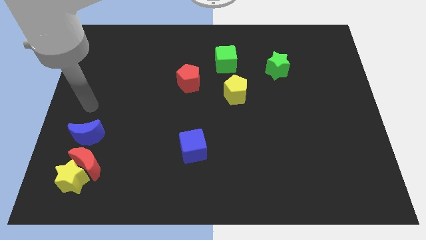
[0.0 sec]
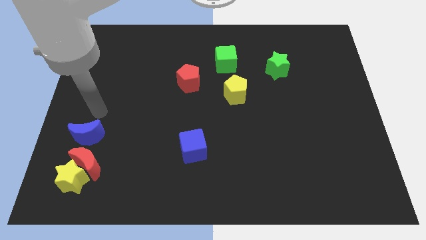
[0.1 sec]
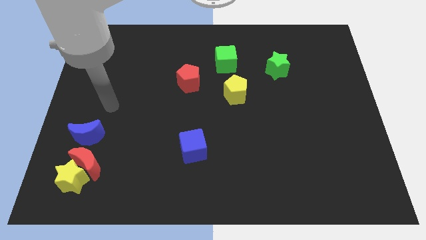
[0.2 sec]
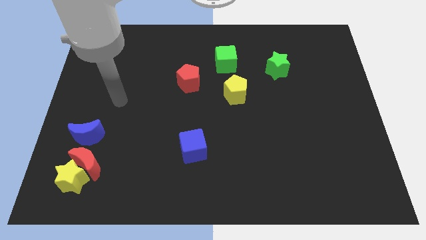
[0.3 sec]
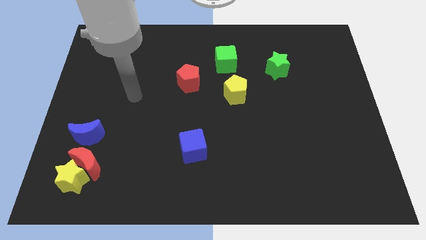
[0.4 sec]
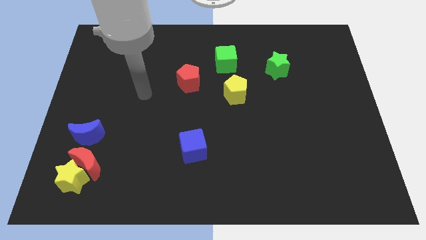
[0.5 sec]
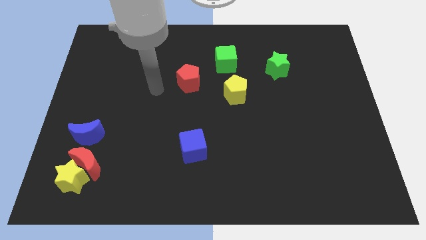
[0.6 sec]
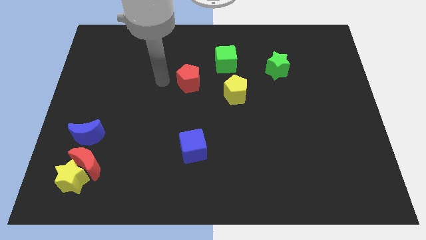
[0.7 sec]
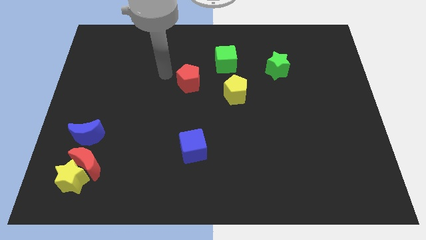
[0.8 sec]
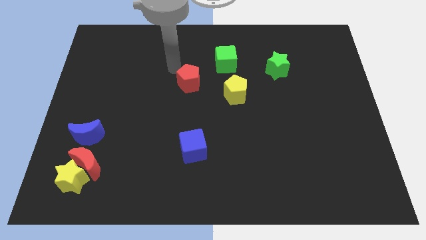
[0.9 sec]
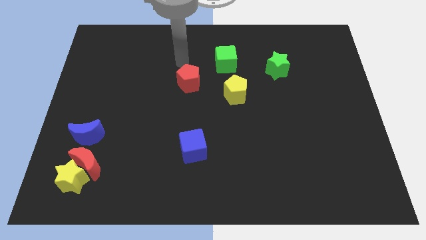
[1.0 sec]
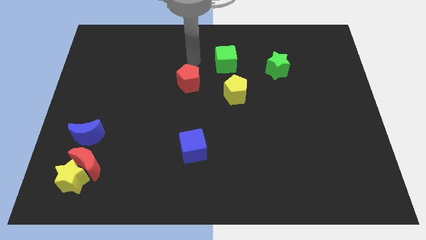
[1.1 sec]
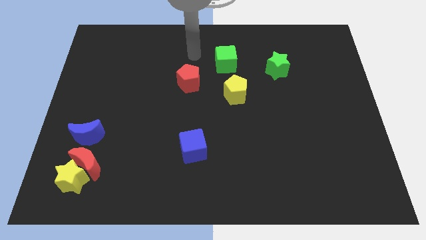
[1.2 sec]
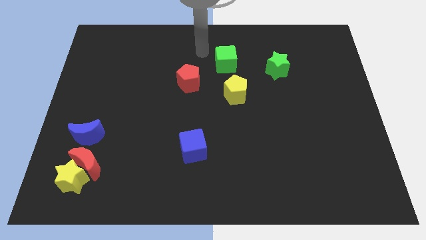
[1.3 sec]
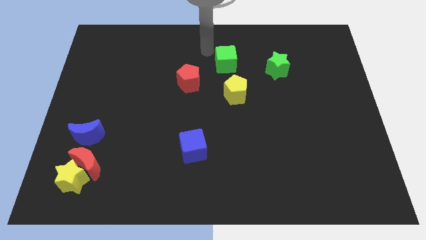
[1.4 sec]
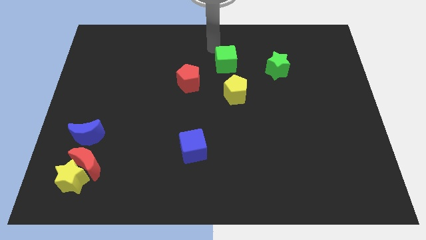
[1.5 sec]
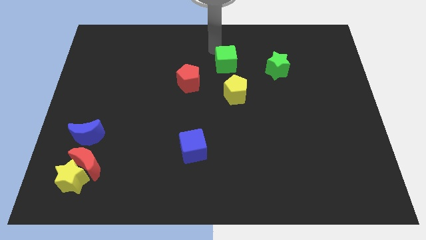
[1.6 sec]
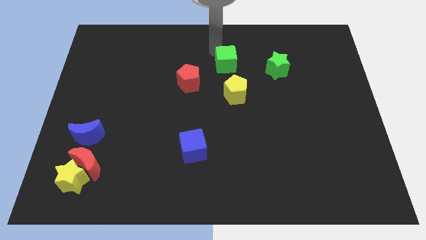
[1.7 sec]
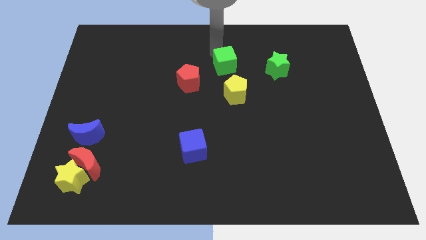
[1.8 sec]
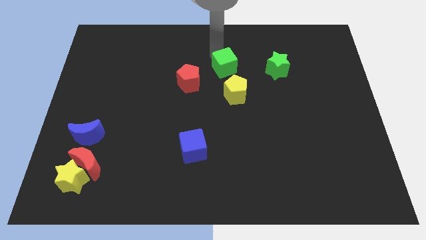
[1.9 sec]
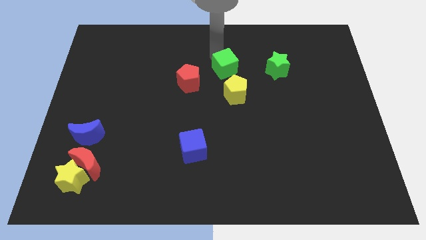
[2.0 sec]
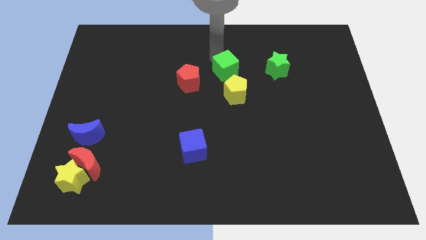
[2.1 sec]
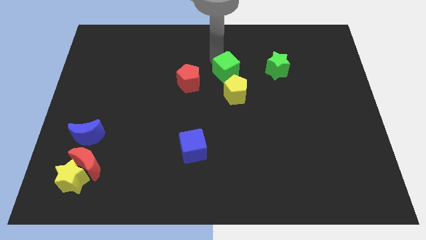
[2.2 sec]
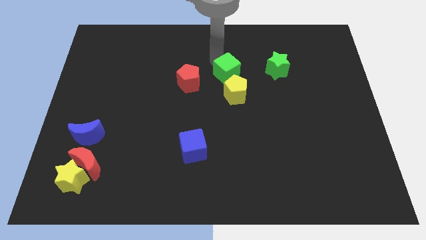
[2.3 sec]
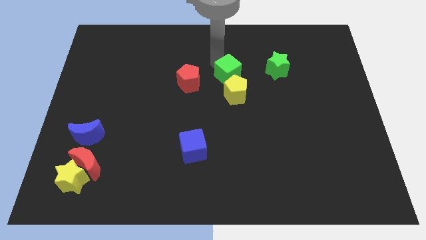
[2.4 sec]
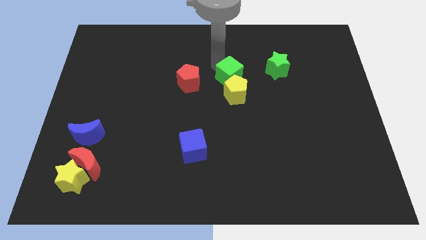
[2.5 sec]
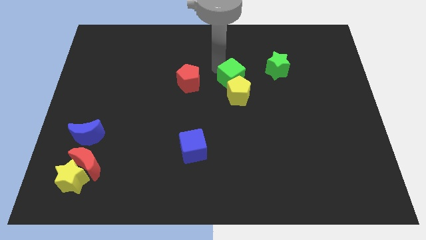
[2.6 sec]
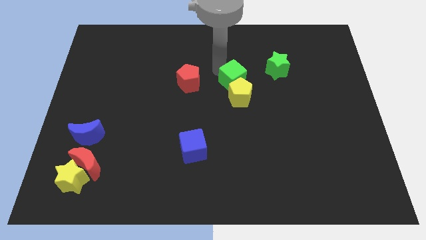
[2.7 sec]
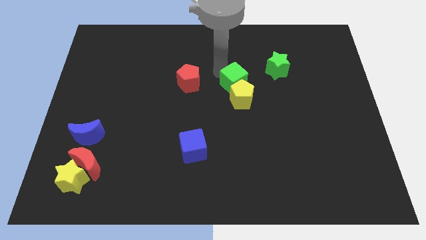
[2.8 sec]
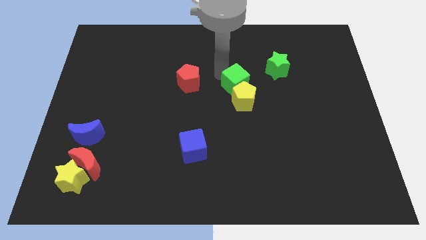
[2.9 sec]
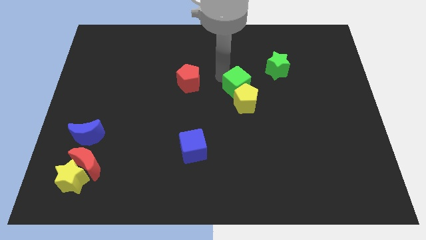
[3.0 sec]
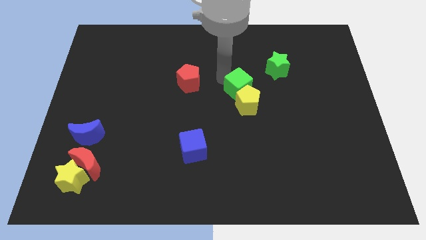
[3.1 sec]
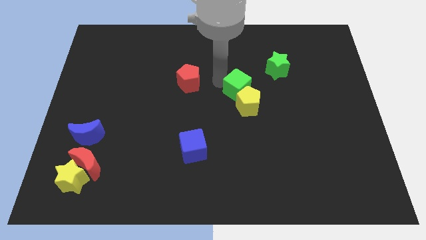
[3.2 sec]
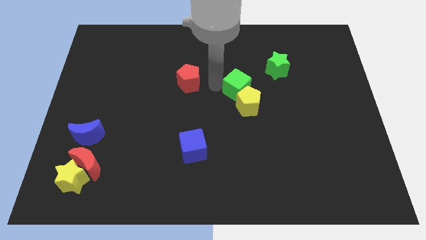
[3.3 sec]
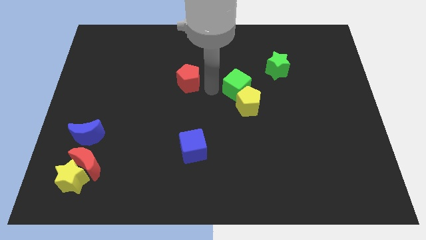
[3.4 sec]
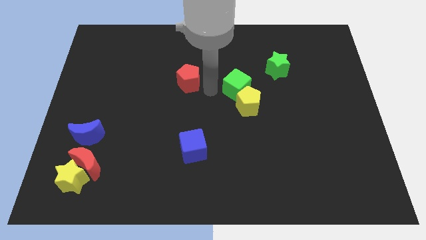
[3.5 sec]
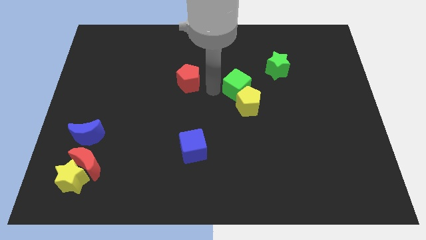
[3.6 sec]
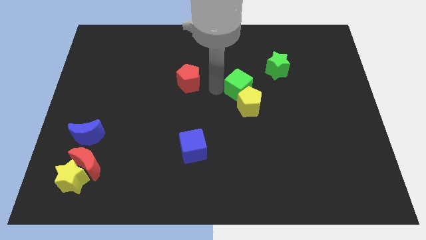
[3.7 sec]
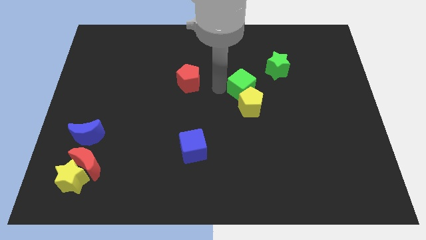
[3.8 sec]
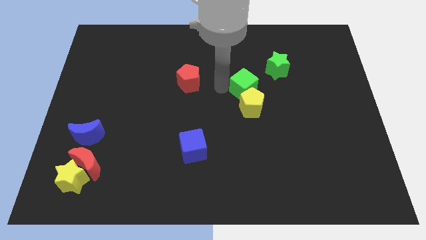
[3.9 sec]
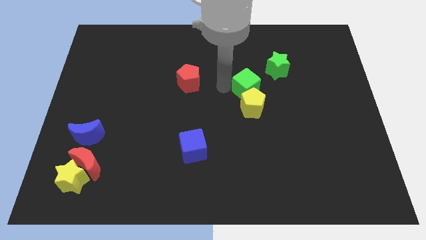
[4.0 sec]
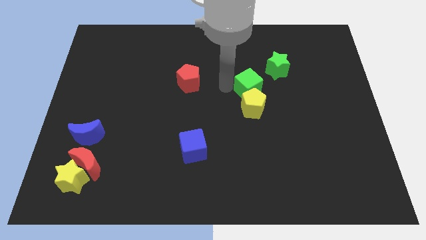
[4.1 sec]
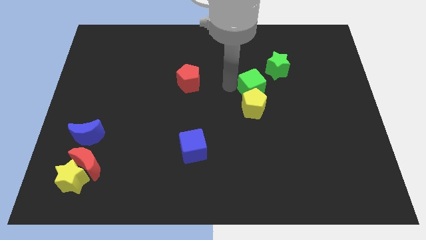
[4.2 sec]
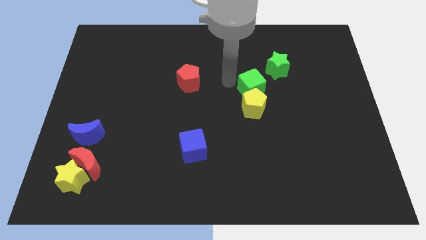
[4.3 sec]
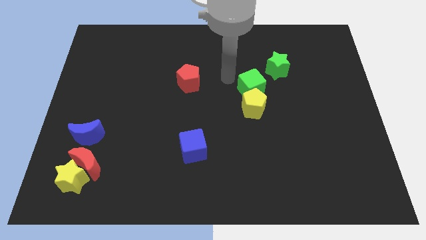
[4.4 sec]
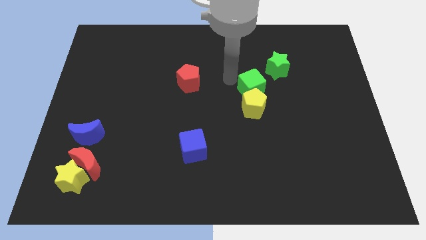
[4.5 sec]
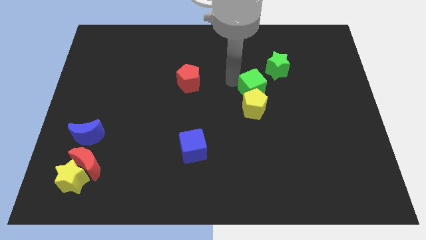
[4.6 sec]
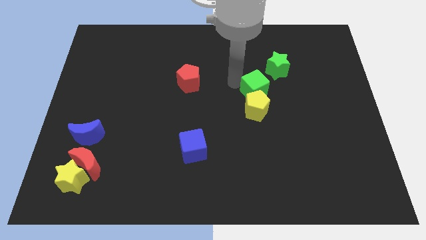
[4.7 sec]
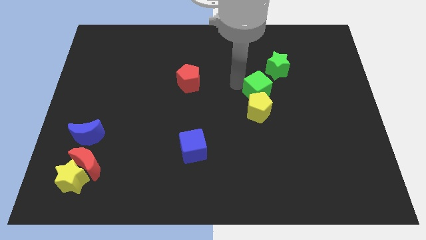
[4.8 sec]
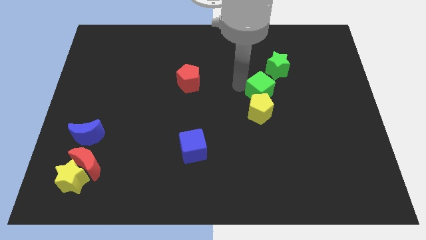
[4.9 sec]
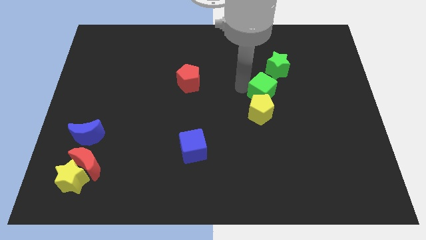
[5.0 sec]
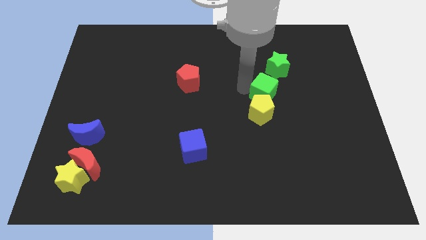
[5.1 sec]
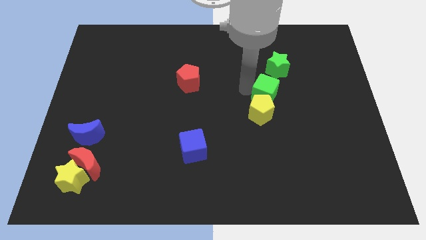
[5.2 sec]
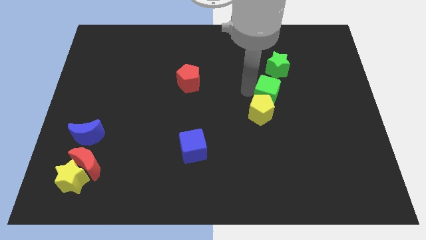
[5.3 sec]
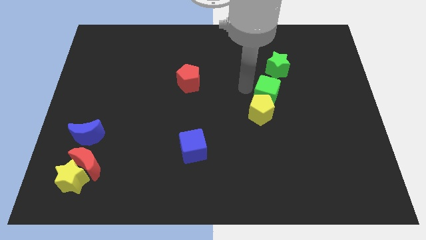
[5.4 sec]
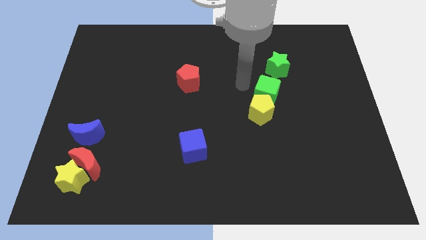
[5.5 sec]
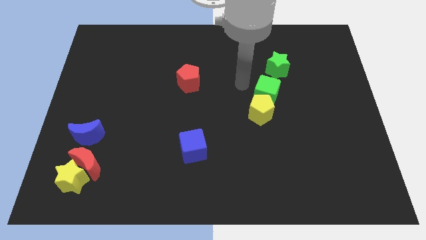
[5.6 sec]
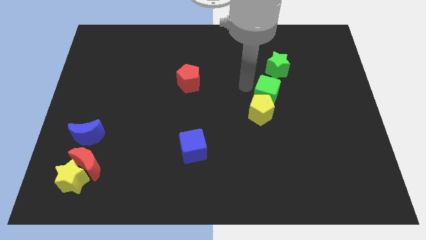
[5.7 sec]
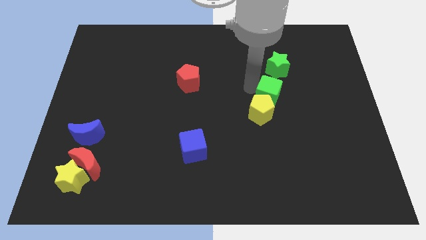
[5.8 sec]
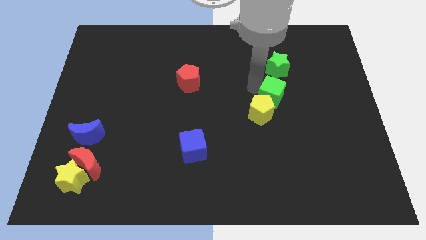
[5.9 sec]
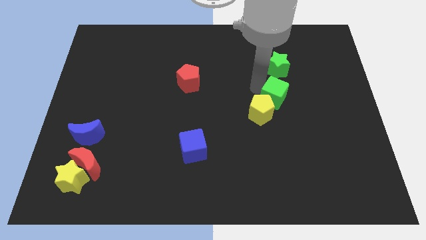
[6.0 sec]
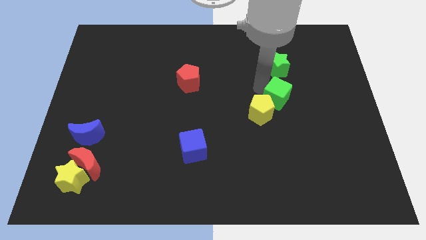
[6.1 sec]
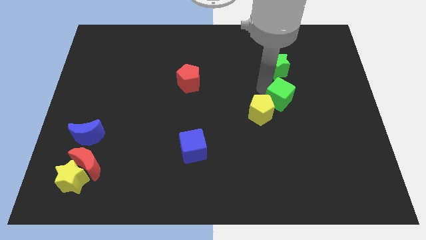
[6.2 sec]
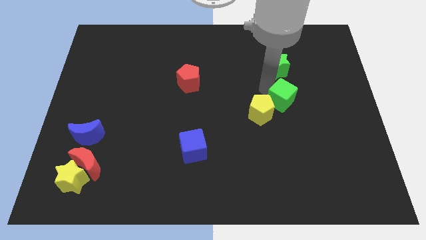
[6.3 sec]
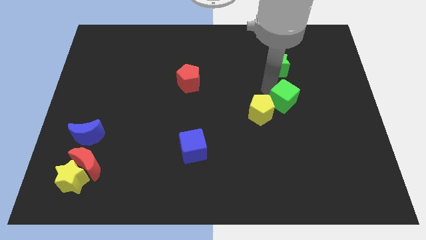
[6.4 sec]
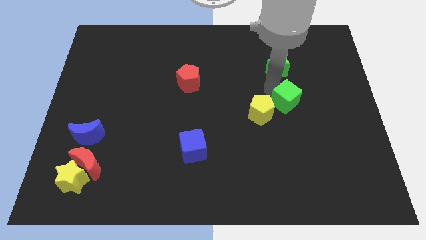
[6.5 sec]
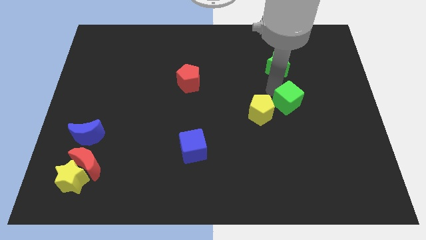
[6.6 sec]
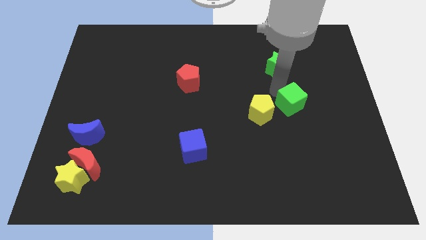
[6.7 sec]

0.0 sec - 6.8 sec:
slide the green cube down and right diagonally

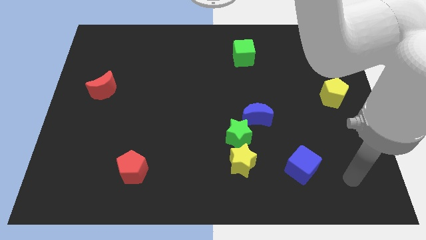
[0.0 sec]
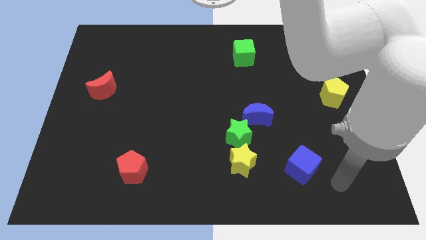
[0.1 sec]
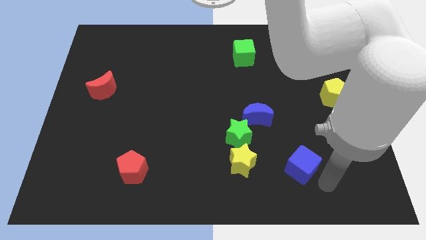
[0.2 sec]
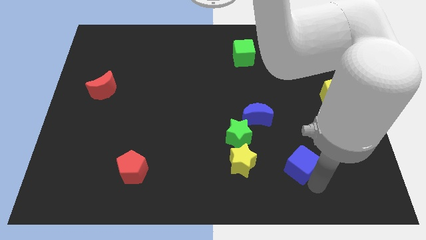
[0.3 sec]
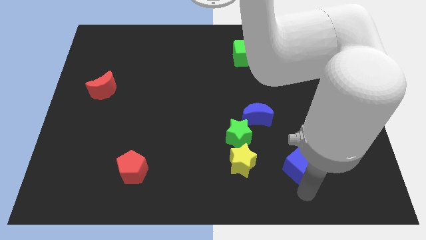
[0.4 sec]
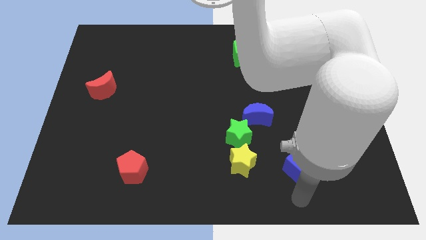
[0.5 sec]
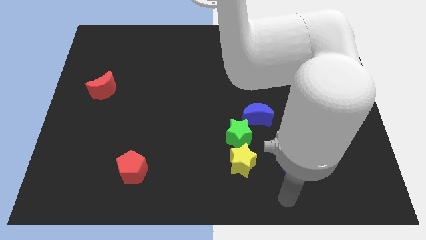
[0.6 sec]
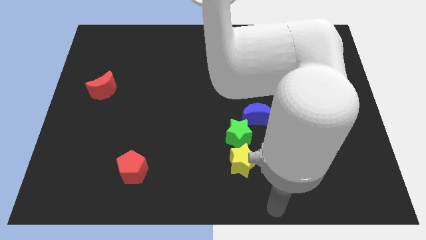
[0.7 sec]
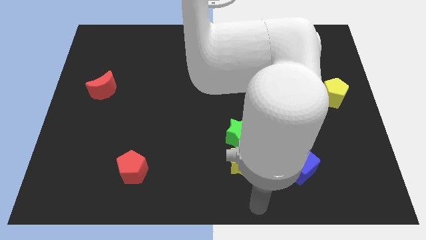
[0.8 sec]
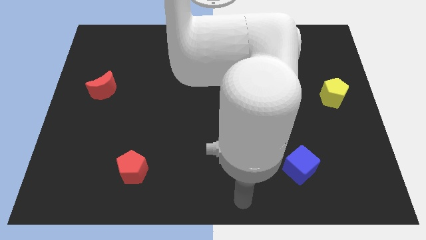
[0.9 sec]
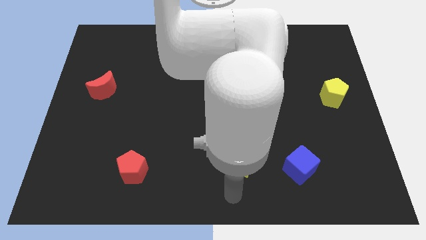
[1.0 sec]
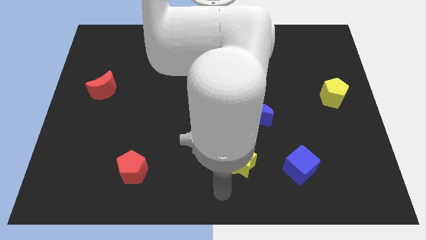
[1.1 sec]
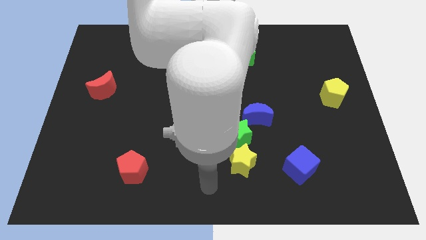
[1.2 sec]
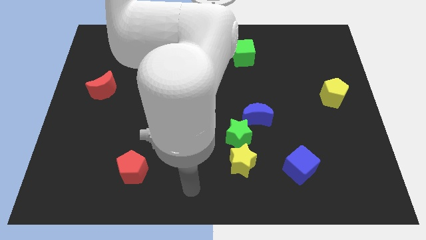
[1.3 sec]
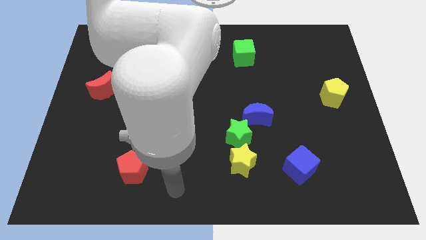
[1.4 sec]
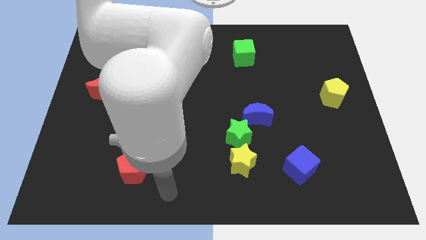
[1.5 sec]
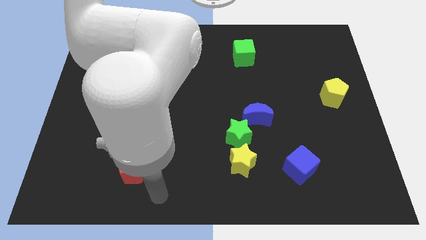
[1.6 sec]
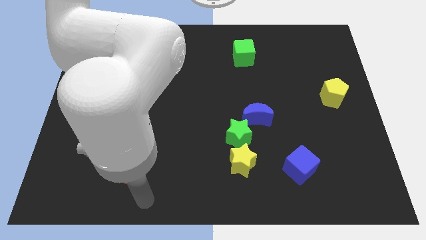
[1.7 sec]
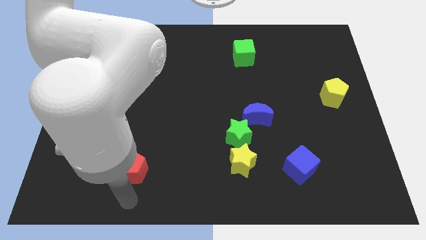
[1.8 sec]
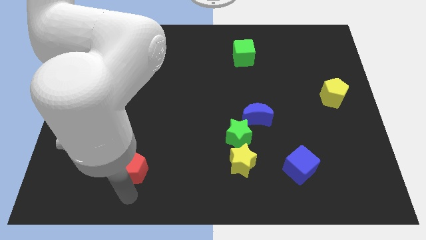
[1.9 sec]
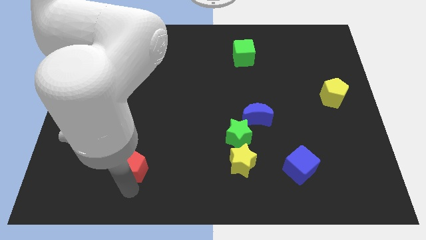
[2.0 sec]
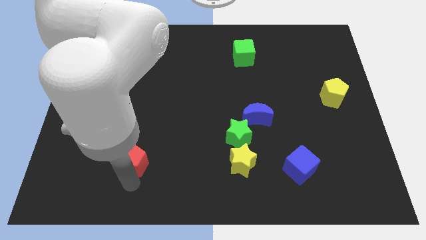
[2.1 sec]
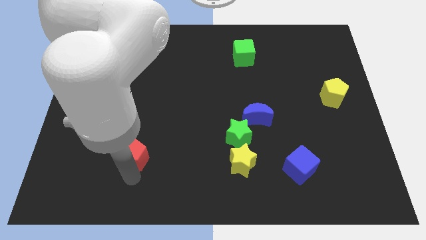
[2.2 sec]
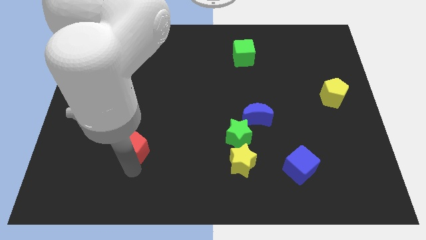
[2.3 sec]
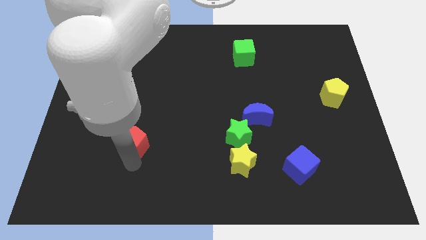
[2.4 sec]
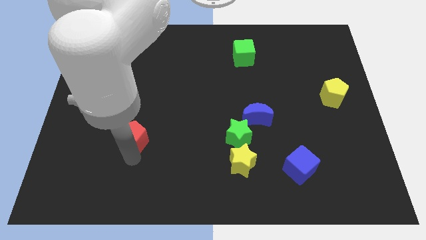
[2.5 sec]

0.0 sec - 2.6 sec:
push the red pentagon slightly up
